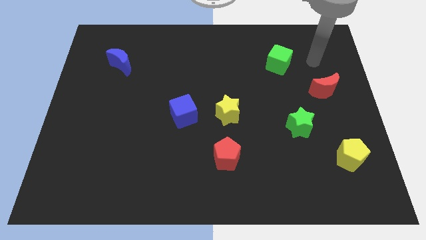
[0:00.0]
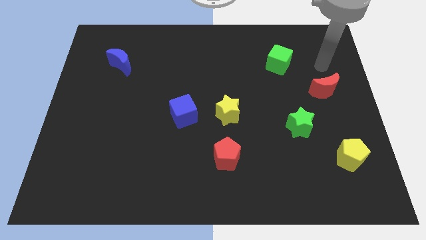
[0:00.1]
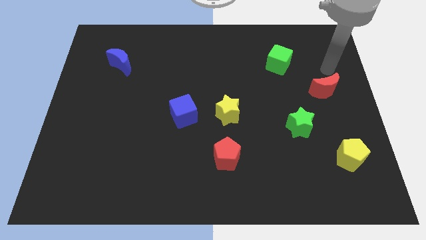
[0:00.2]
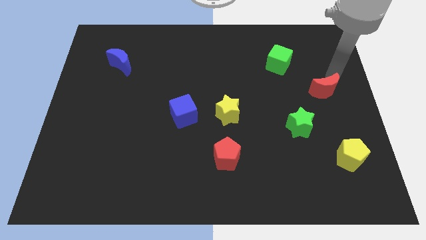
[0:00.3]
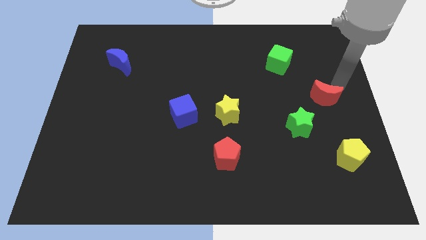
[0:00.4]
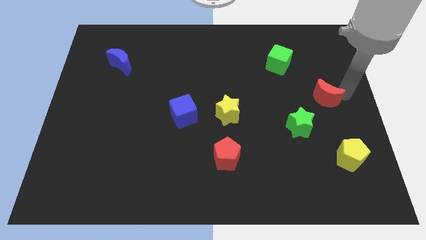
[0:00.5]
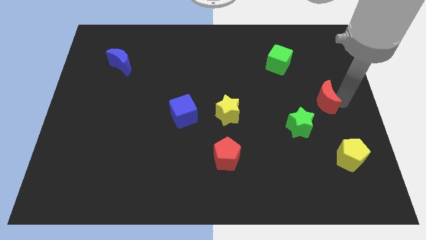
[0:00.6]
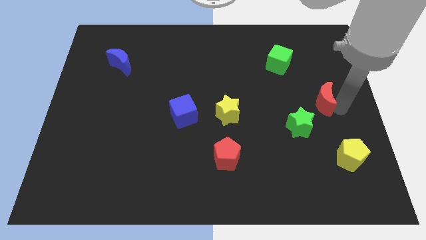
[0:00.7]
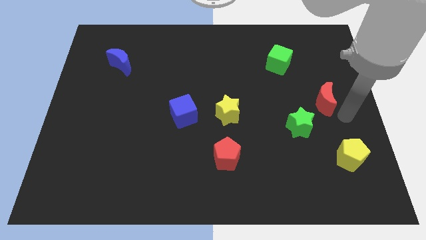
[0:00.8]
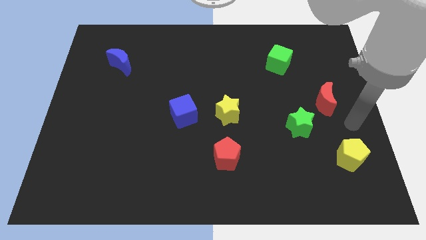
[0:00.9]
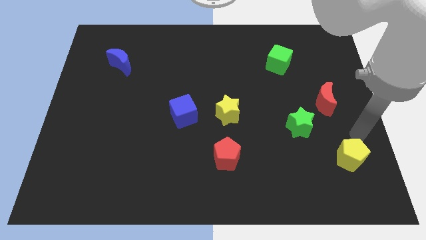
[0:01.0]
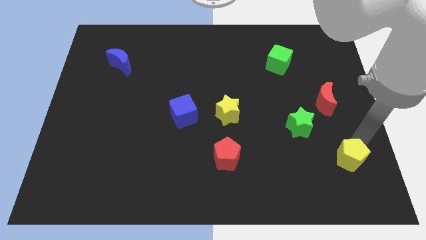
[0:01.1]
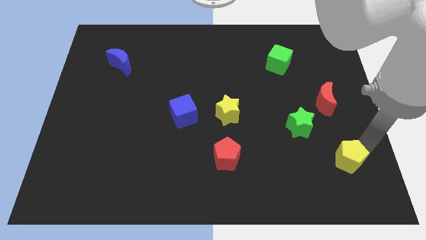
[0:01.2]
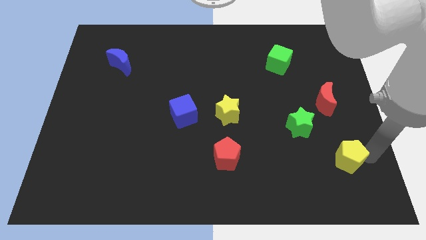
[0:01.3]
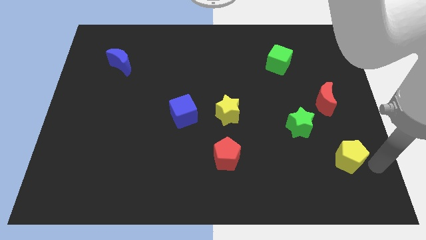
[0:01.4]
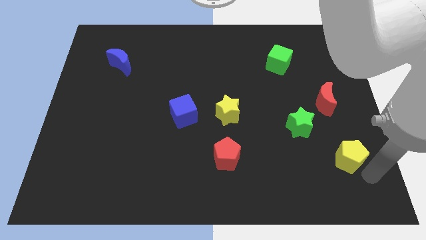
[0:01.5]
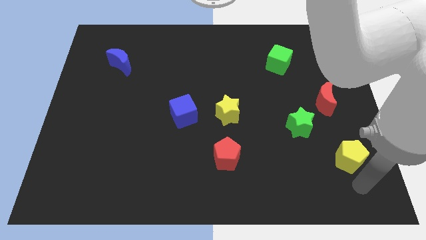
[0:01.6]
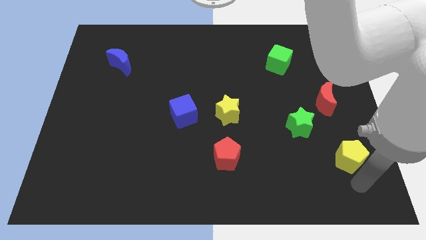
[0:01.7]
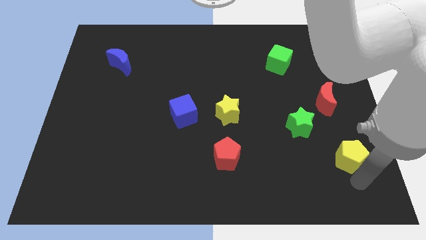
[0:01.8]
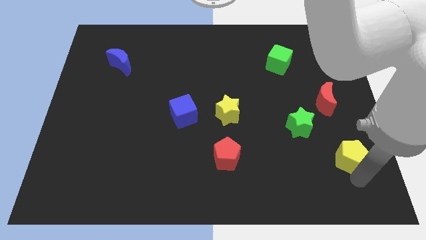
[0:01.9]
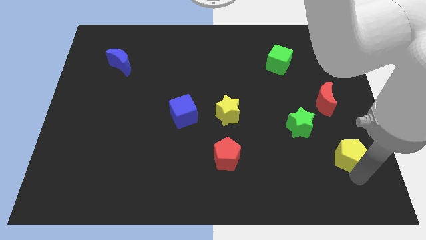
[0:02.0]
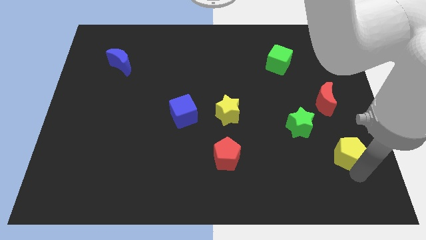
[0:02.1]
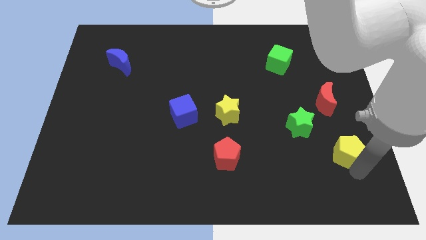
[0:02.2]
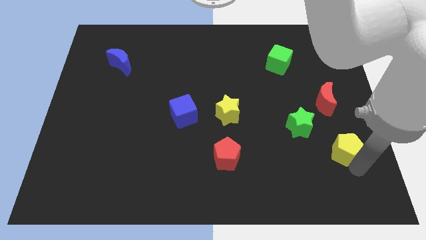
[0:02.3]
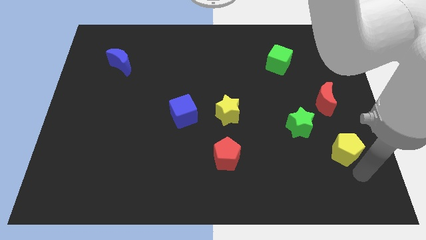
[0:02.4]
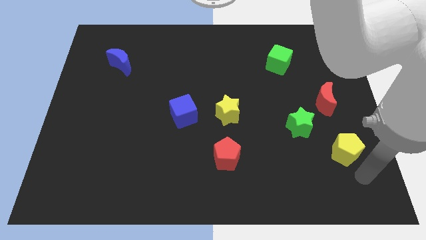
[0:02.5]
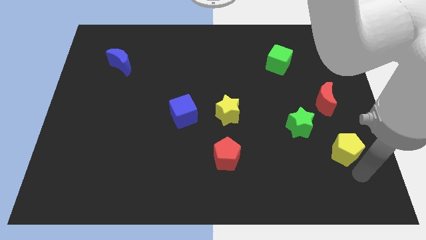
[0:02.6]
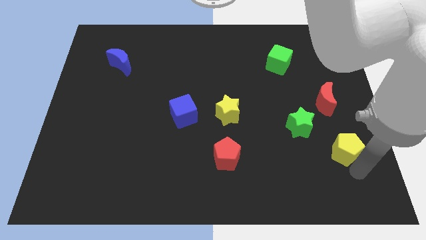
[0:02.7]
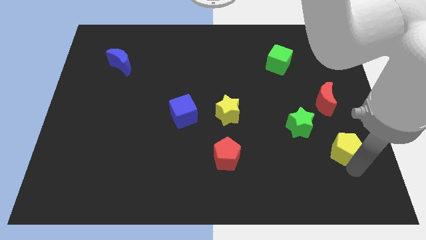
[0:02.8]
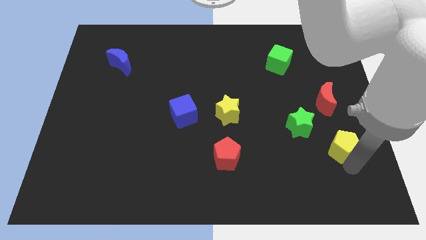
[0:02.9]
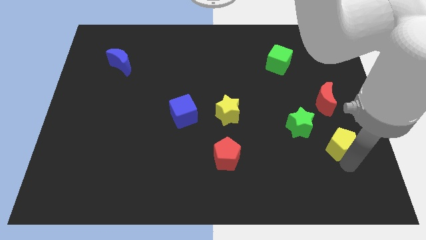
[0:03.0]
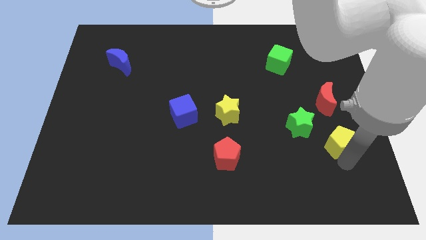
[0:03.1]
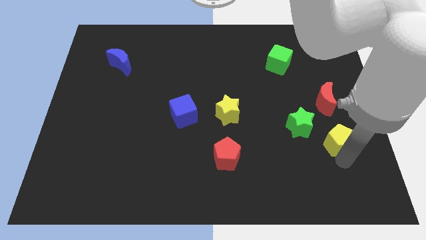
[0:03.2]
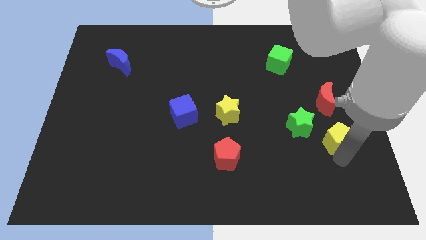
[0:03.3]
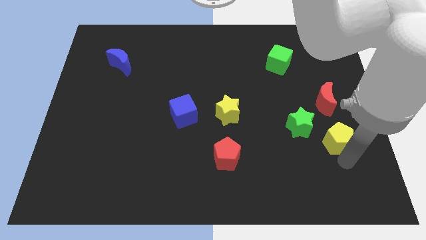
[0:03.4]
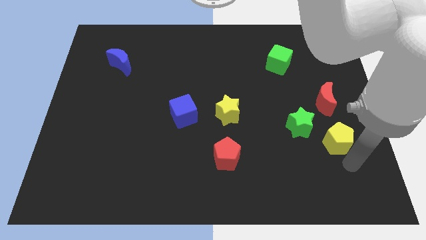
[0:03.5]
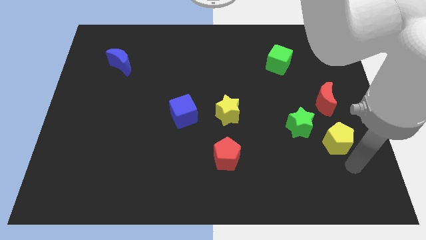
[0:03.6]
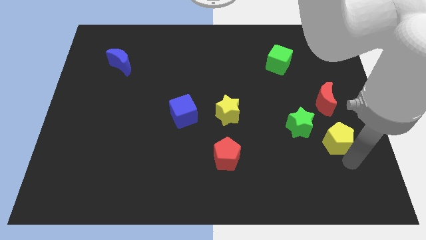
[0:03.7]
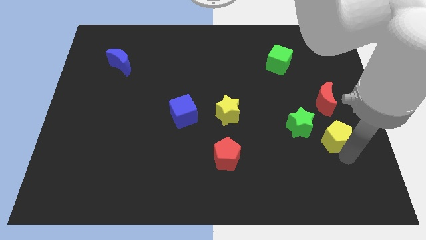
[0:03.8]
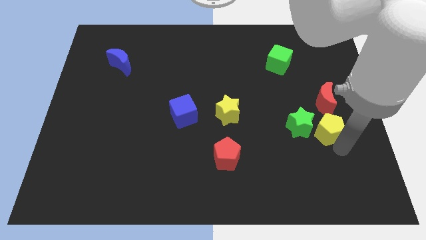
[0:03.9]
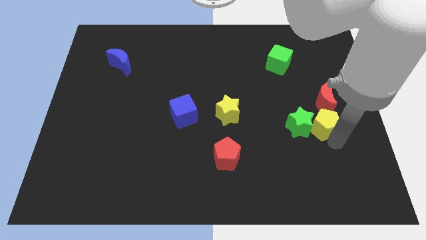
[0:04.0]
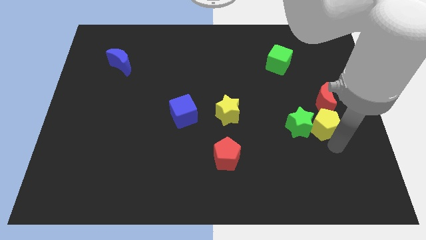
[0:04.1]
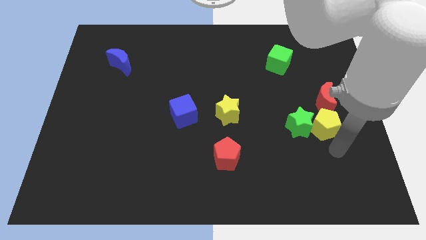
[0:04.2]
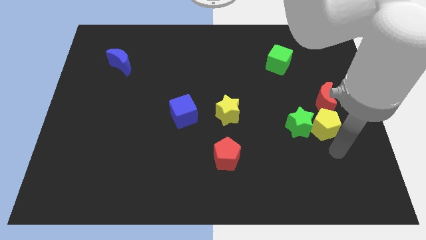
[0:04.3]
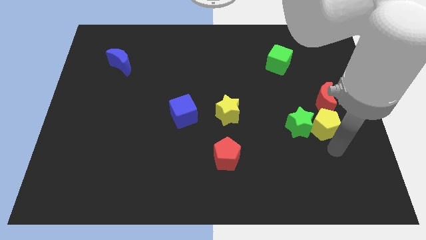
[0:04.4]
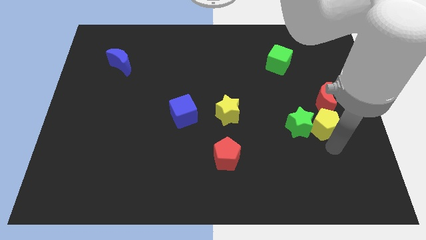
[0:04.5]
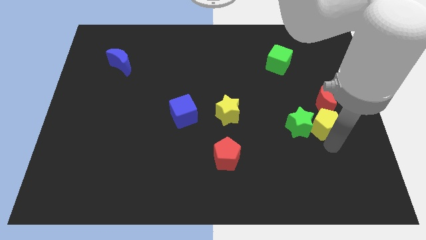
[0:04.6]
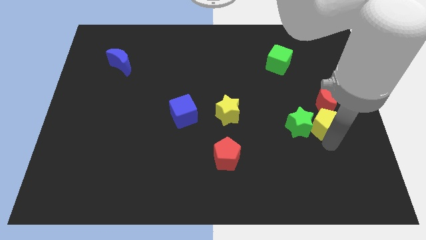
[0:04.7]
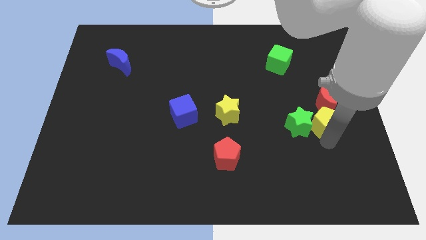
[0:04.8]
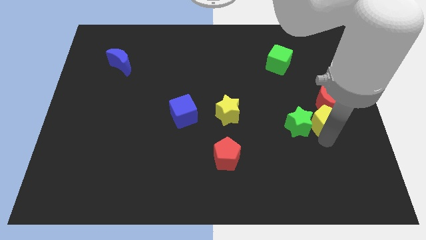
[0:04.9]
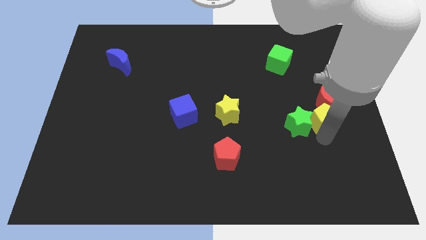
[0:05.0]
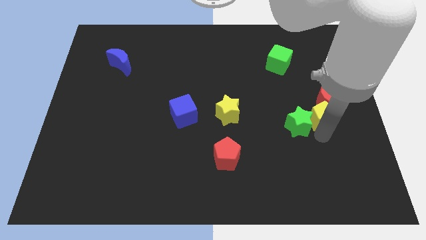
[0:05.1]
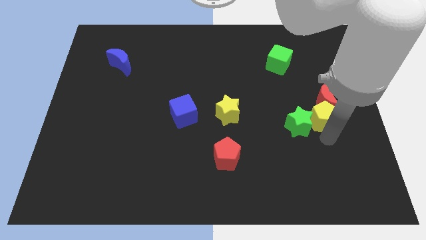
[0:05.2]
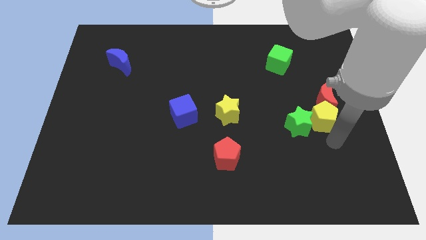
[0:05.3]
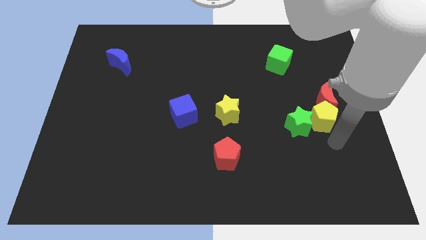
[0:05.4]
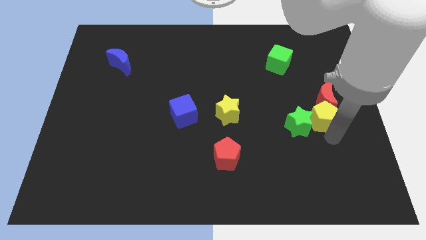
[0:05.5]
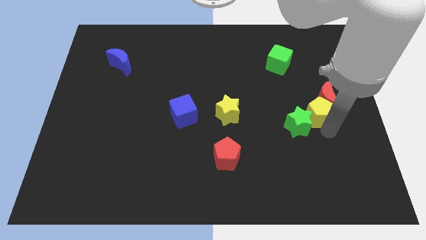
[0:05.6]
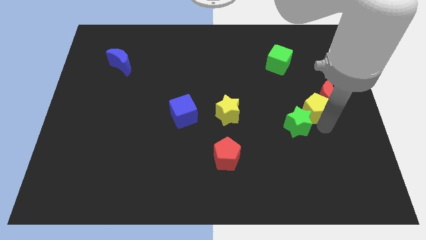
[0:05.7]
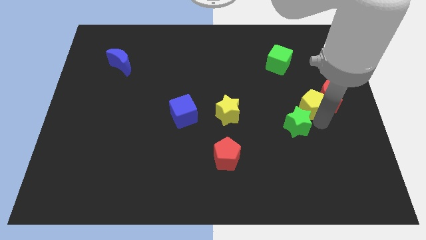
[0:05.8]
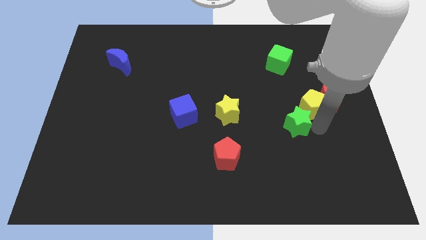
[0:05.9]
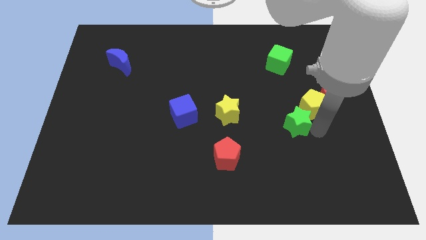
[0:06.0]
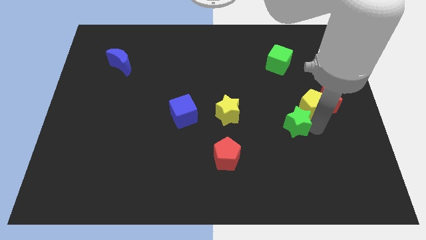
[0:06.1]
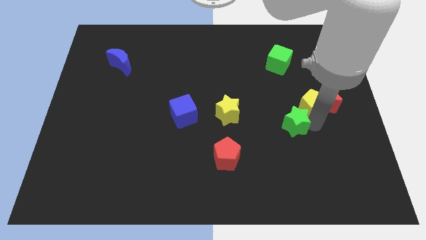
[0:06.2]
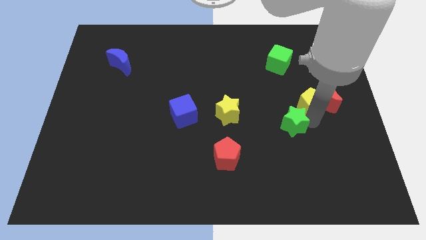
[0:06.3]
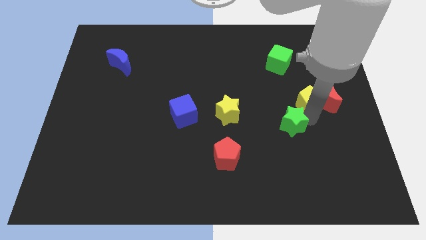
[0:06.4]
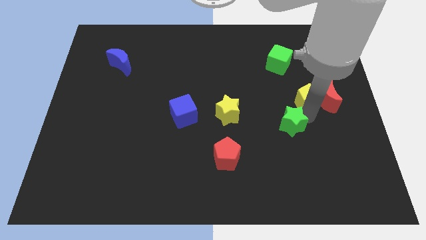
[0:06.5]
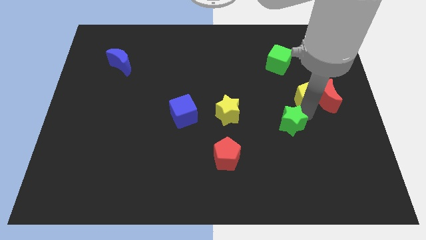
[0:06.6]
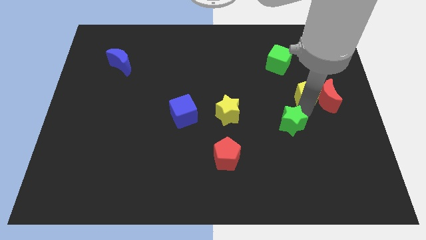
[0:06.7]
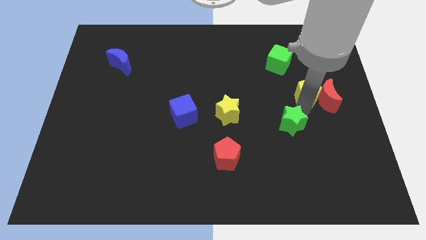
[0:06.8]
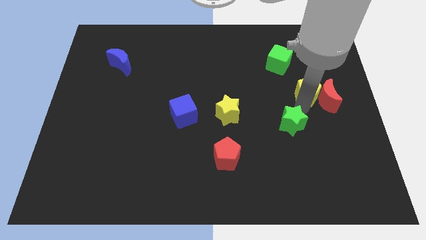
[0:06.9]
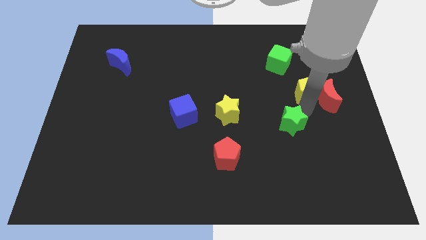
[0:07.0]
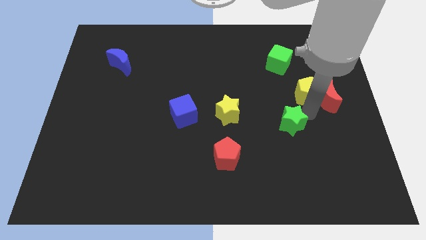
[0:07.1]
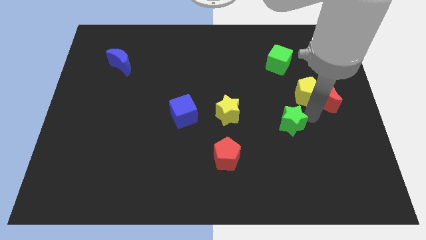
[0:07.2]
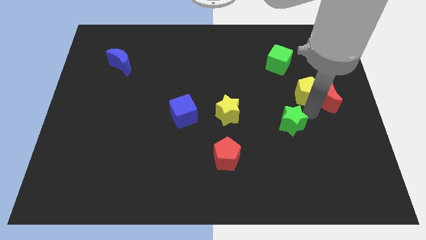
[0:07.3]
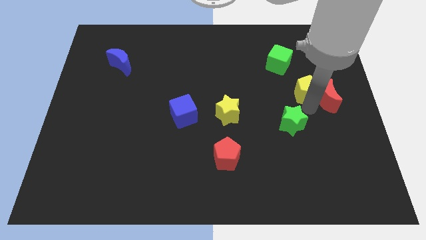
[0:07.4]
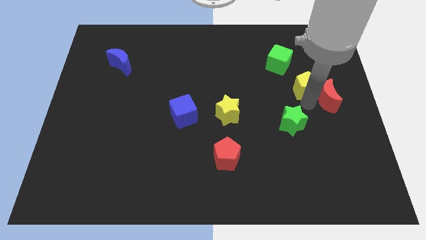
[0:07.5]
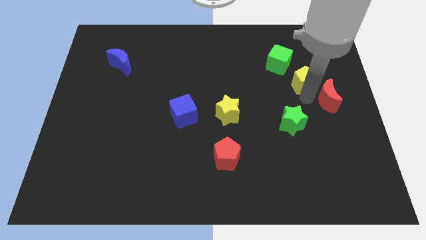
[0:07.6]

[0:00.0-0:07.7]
move the yellow pentagon to the top of the red moon

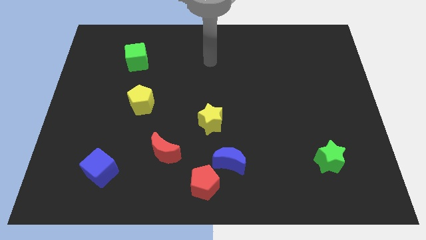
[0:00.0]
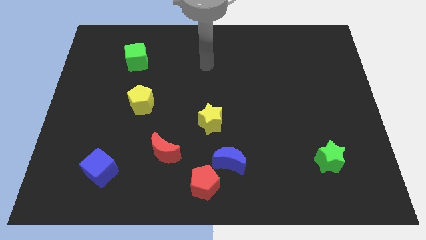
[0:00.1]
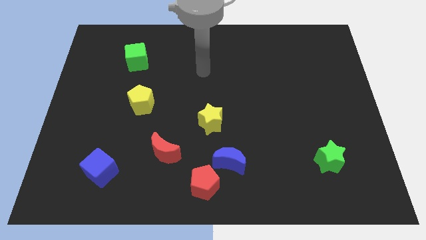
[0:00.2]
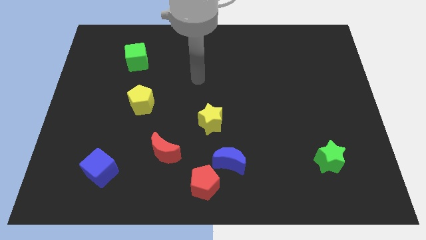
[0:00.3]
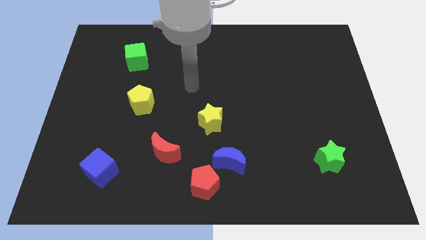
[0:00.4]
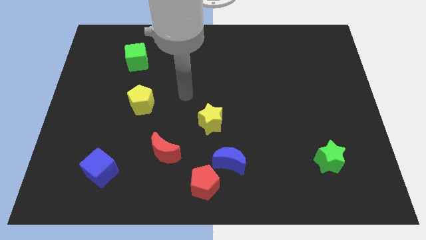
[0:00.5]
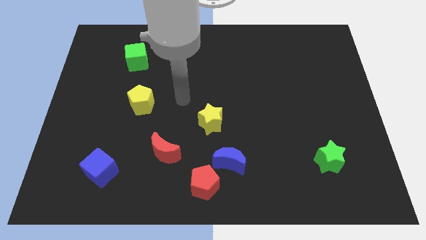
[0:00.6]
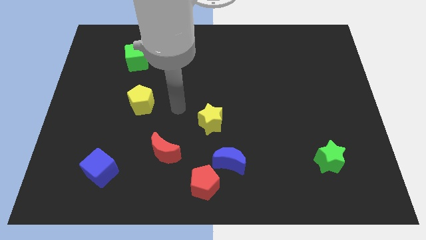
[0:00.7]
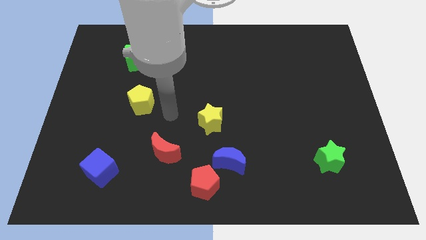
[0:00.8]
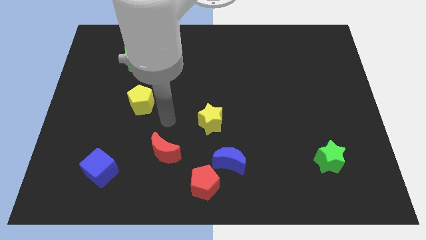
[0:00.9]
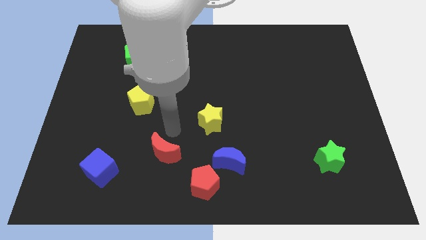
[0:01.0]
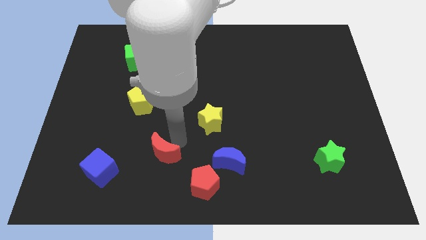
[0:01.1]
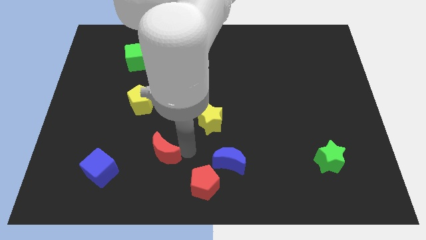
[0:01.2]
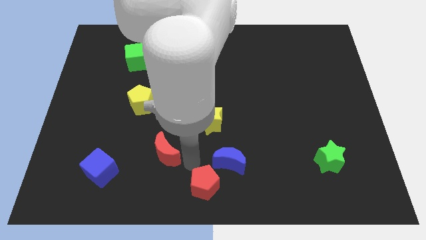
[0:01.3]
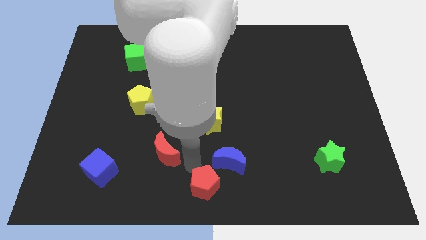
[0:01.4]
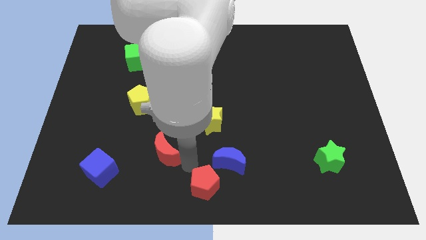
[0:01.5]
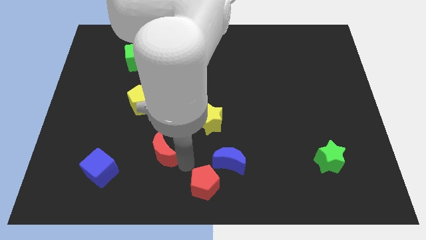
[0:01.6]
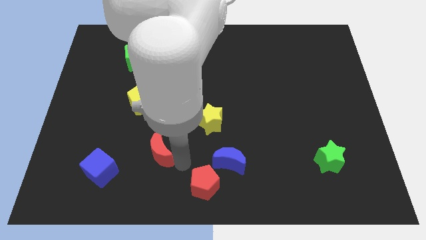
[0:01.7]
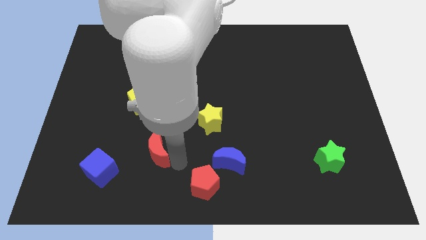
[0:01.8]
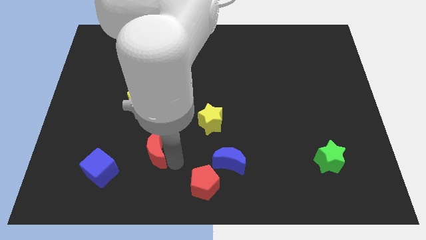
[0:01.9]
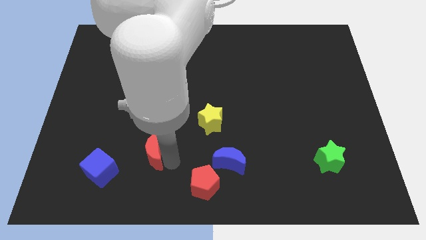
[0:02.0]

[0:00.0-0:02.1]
put the red moon to the bottom of the yellow pentagon
